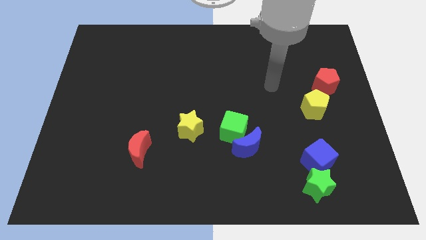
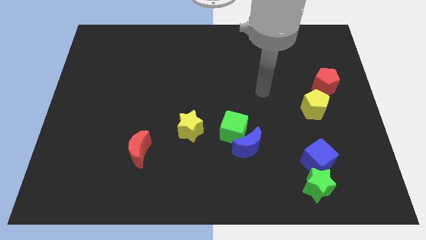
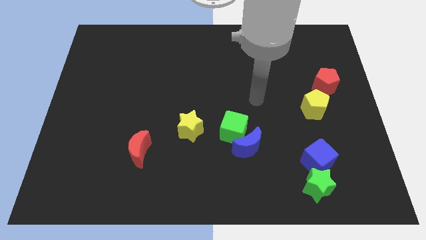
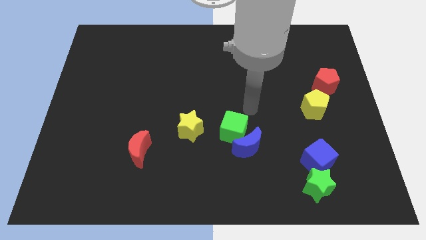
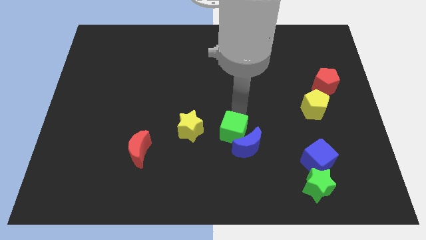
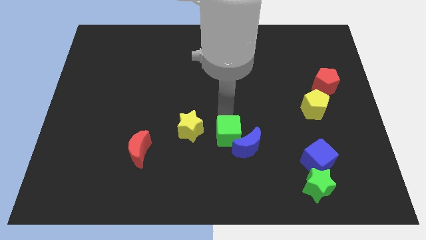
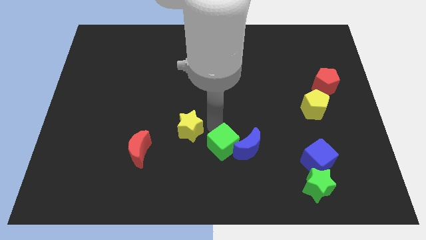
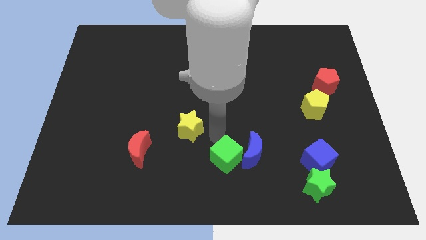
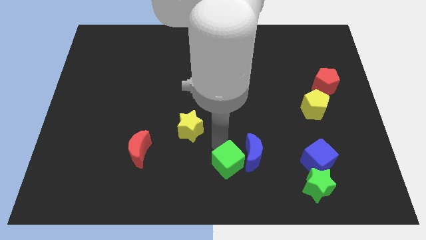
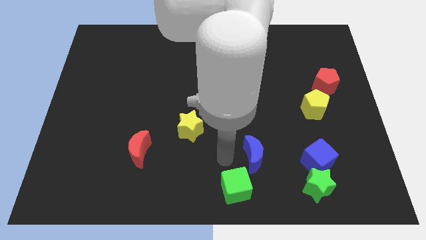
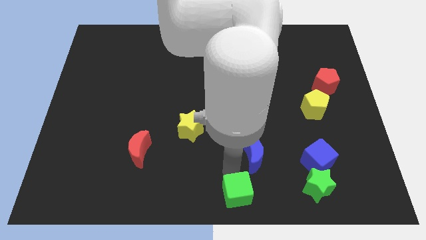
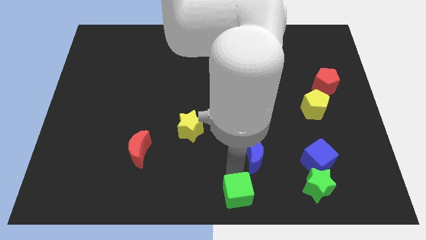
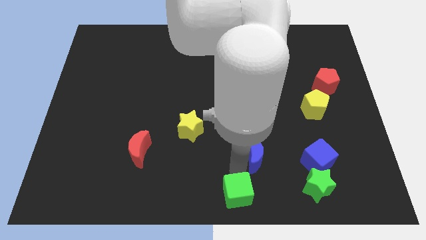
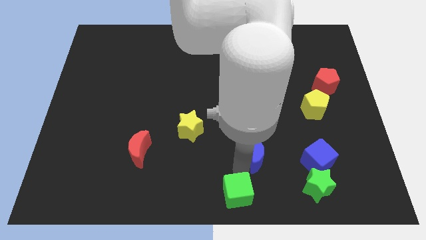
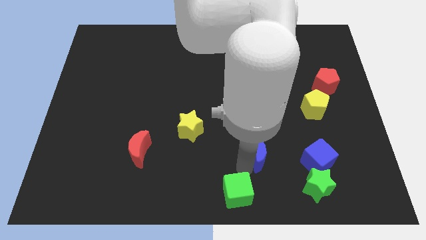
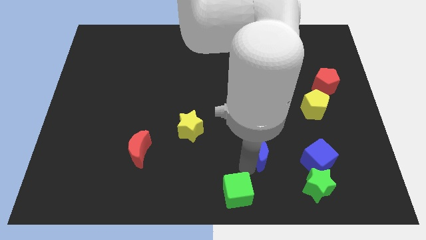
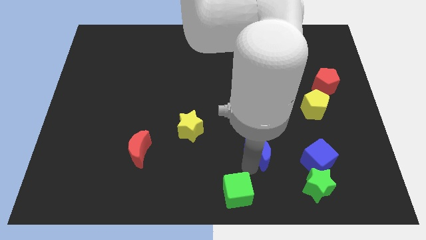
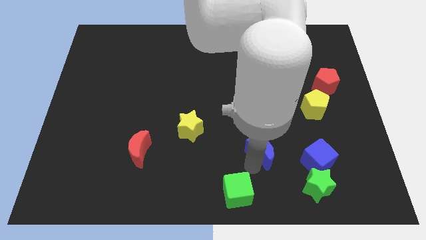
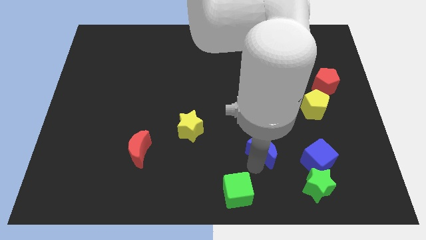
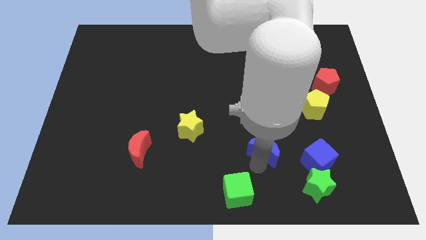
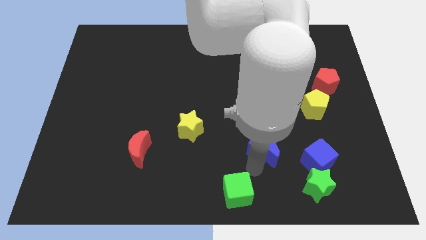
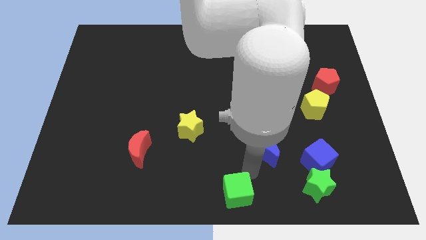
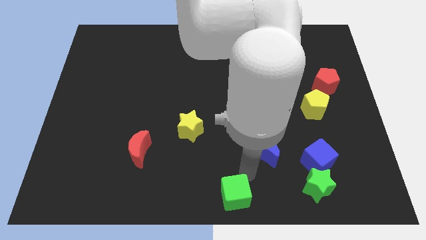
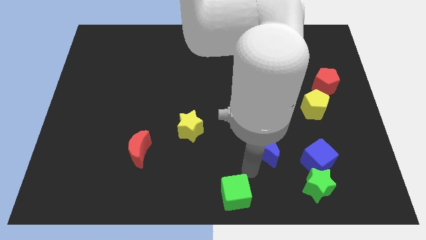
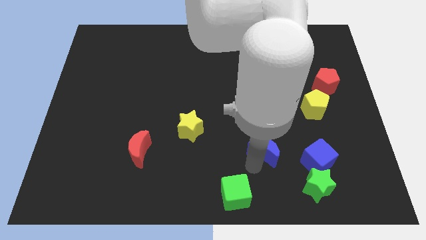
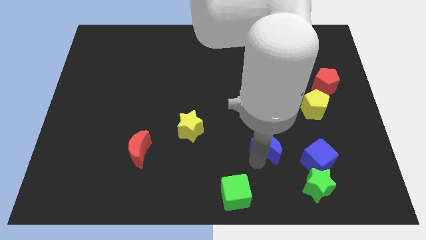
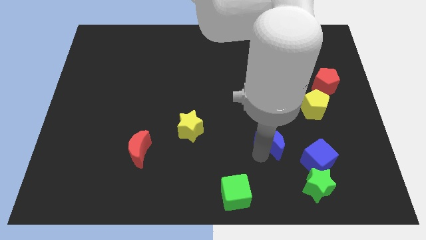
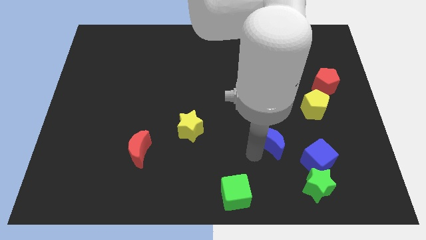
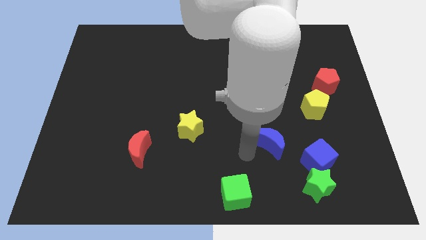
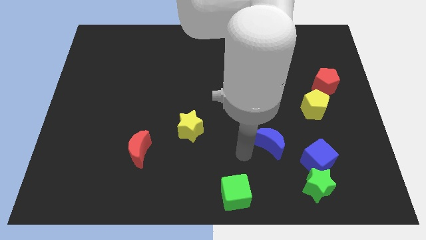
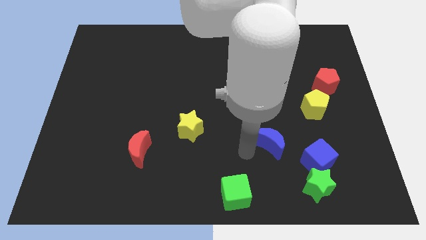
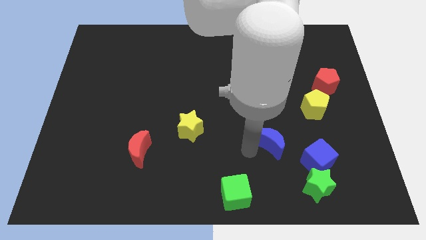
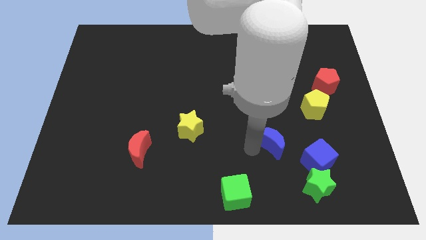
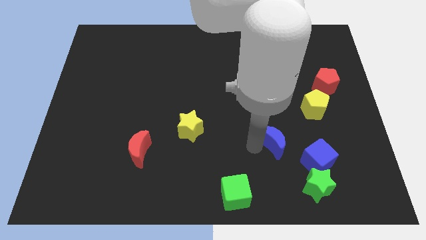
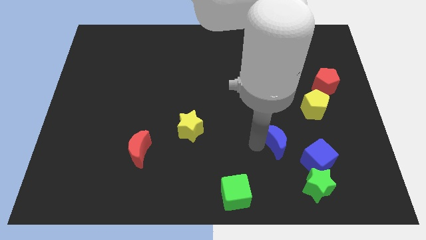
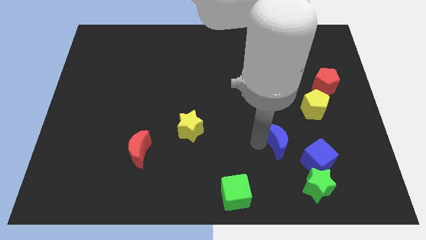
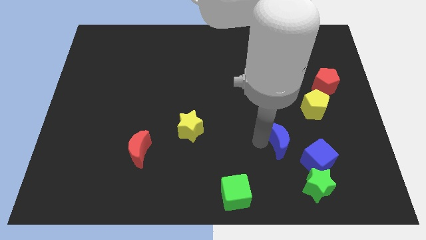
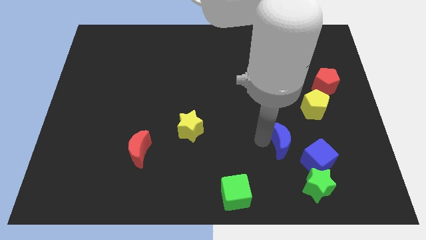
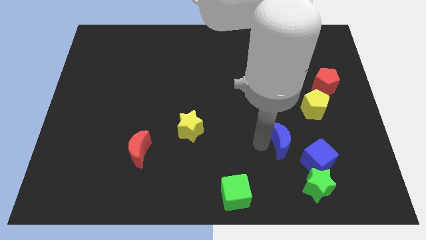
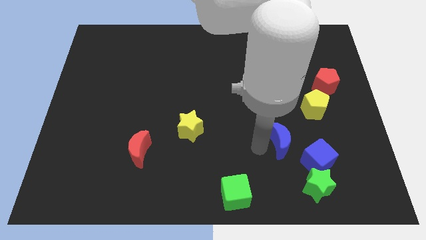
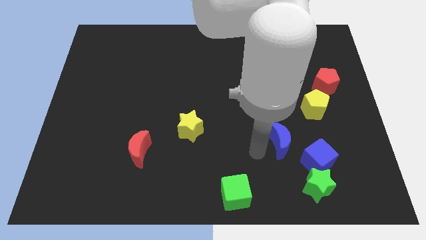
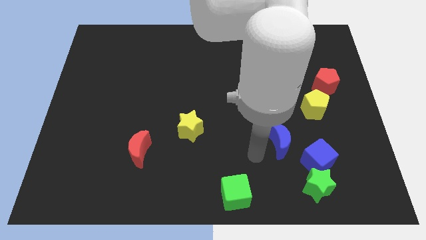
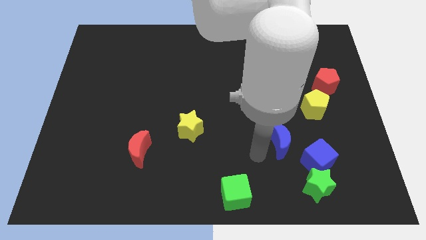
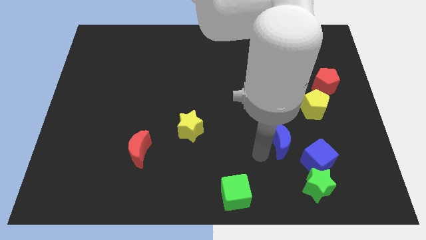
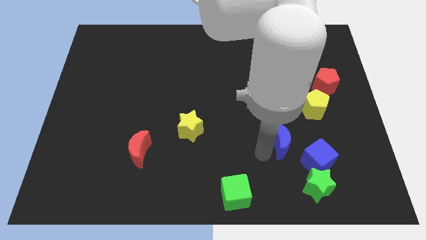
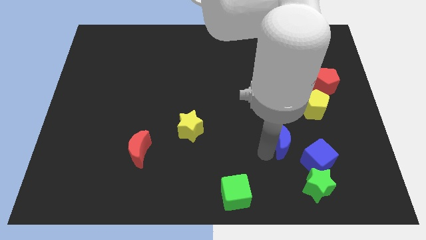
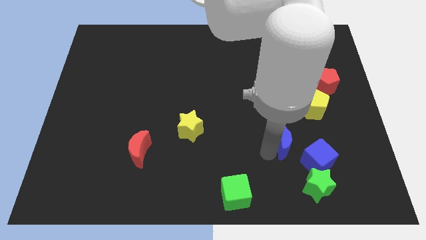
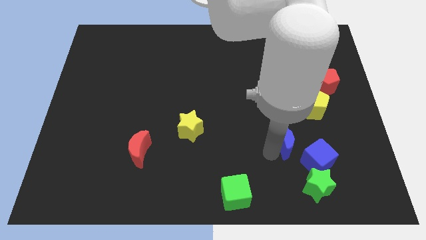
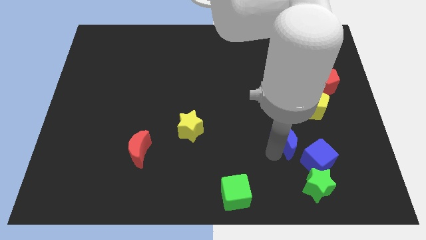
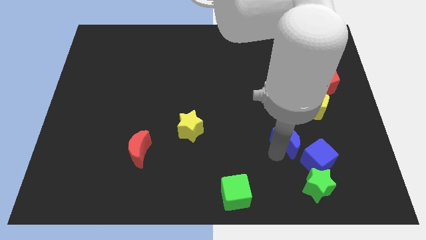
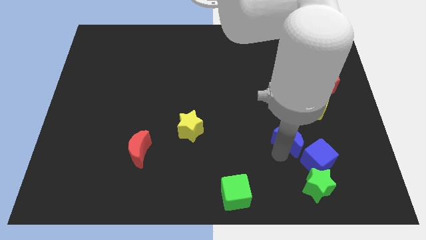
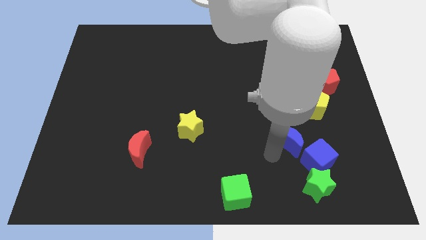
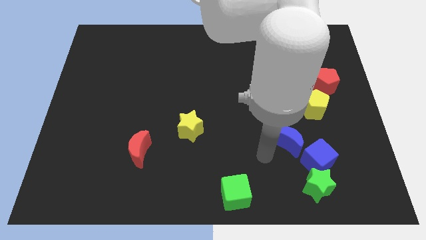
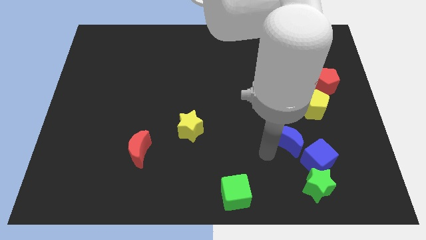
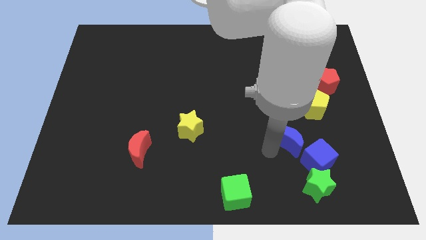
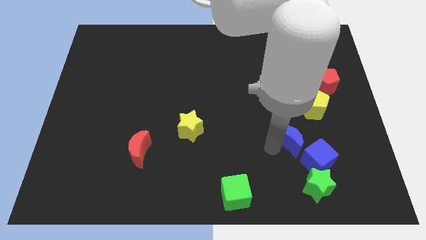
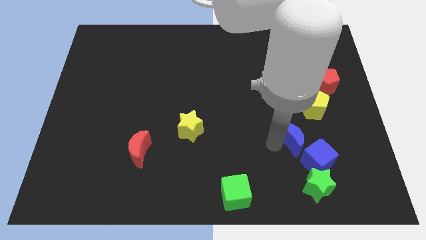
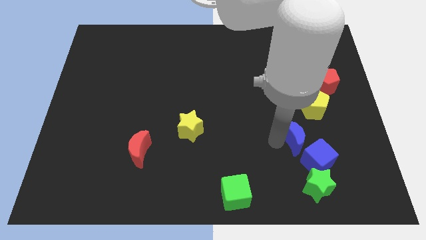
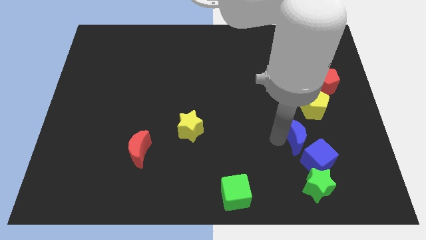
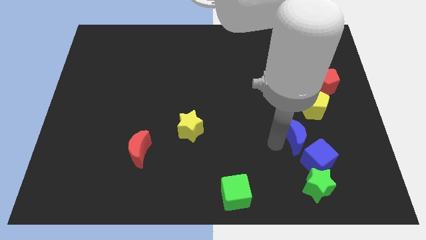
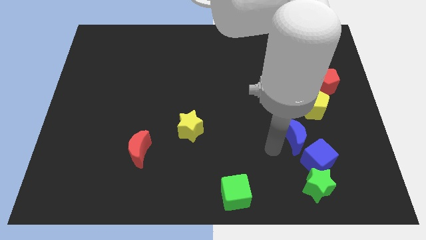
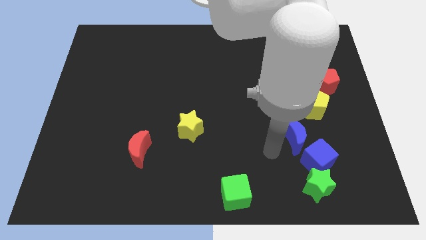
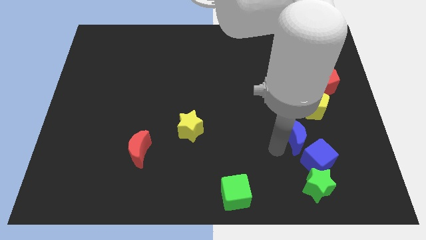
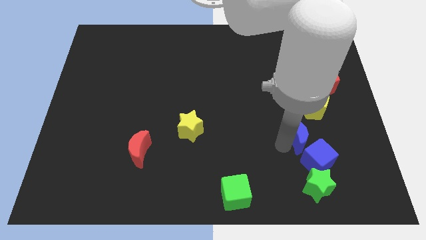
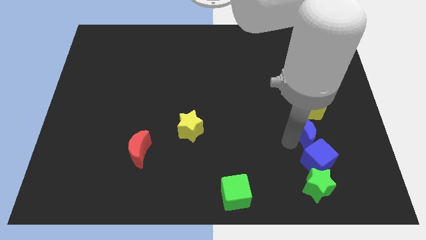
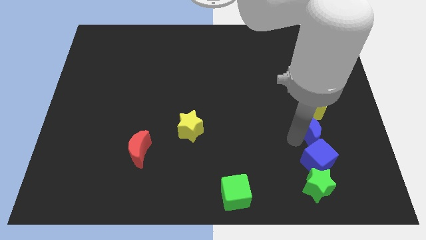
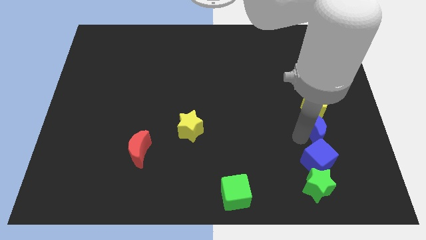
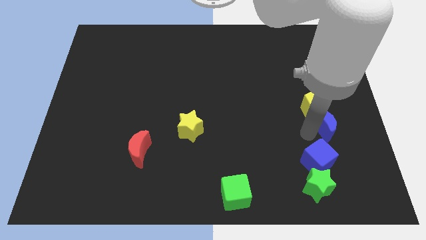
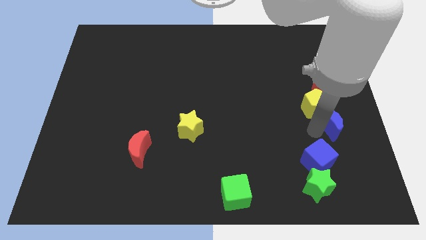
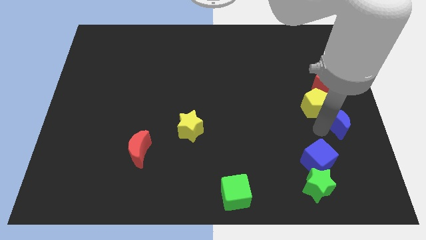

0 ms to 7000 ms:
slide the blue moon to the center right

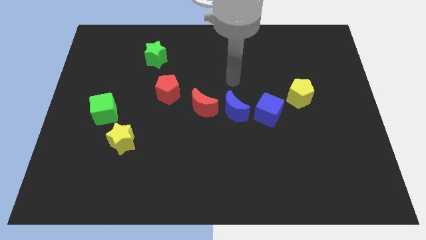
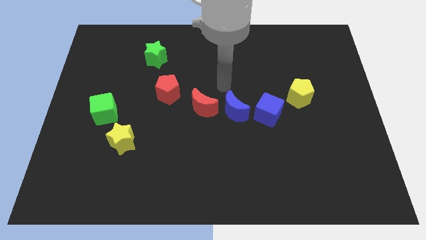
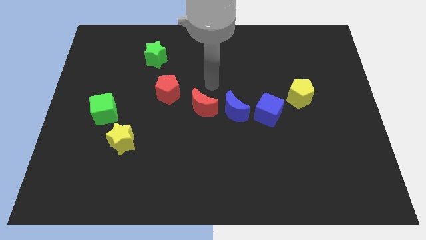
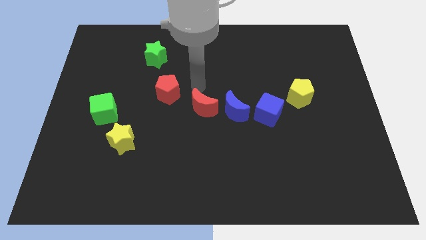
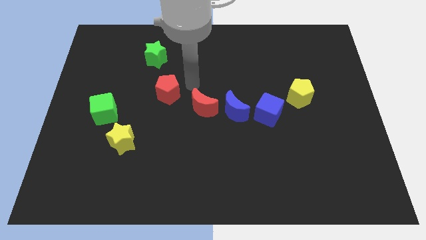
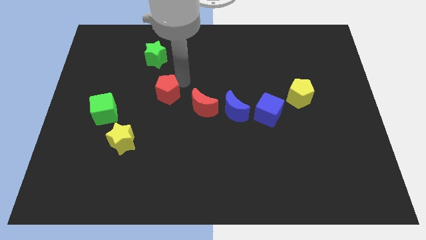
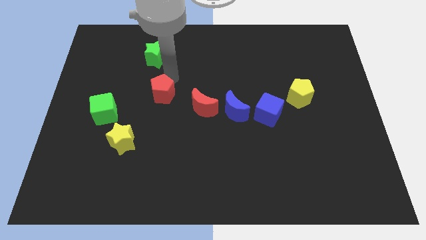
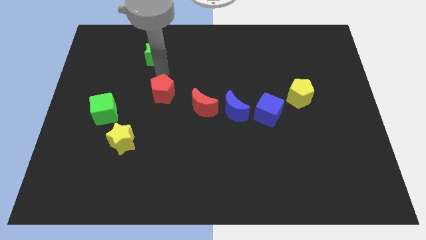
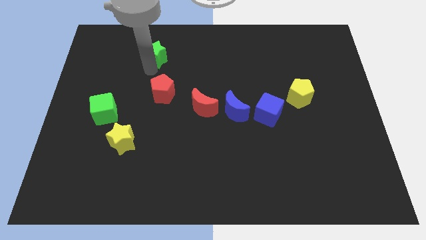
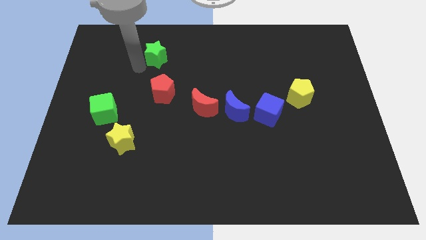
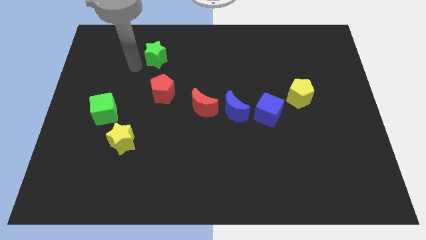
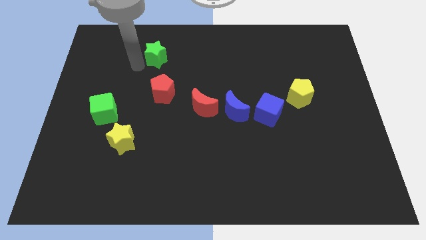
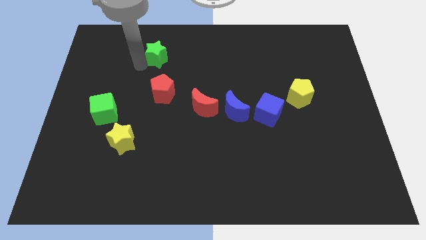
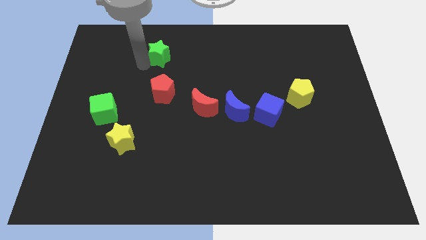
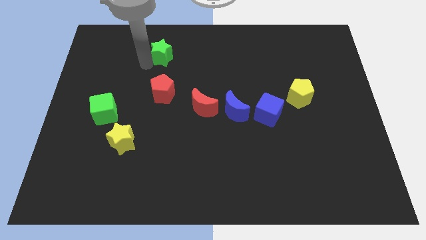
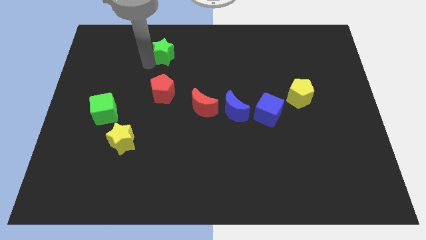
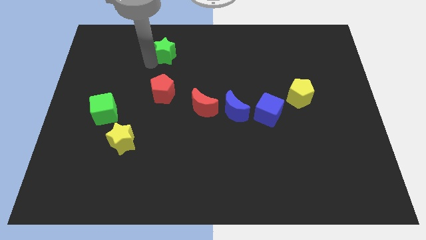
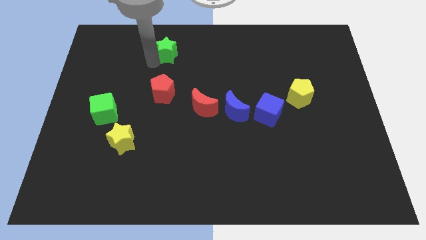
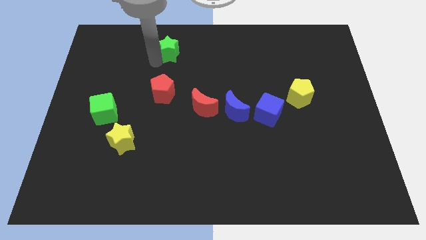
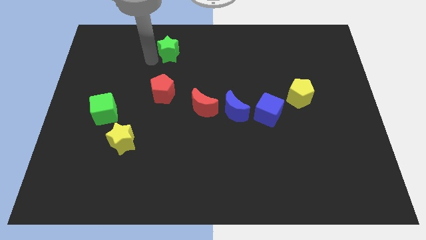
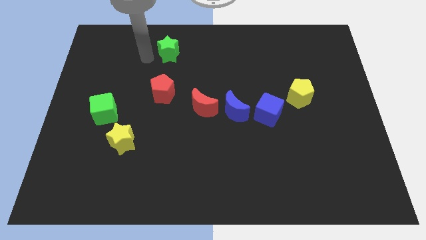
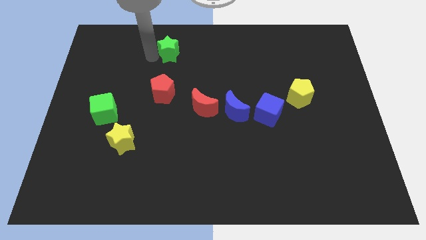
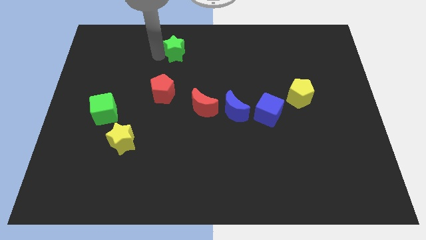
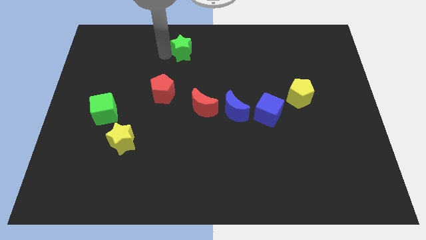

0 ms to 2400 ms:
move the green star to the top
